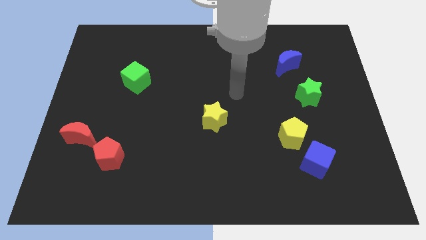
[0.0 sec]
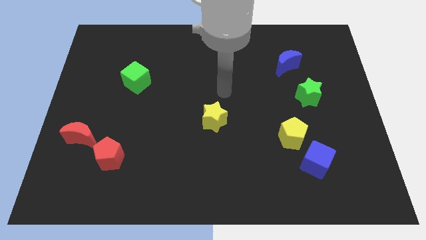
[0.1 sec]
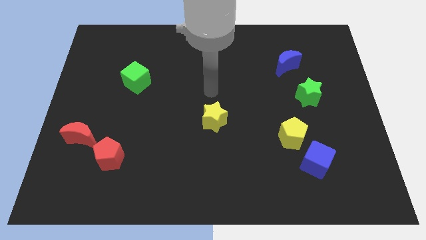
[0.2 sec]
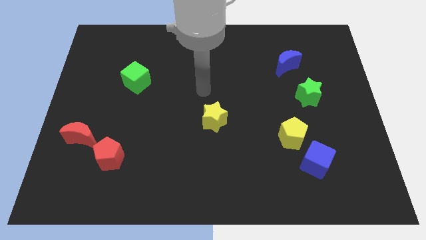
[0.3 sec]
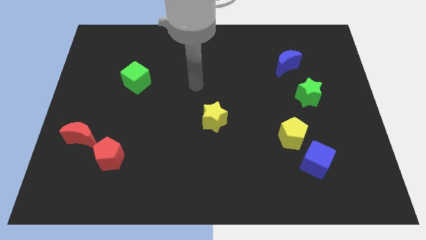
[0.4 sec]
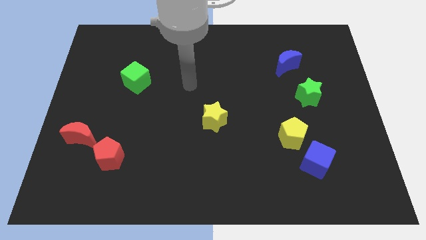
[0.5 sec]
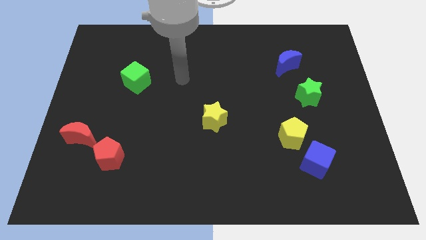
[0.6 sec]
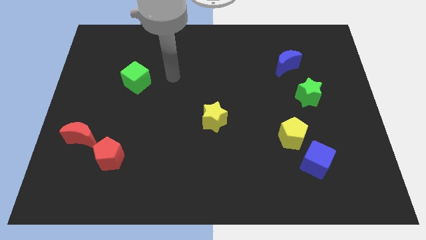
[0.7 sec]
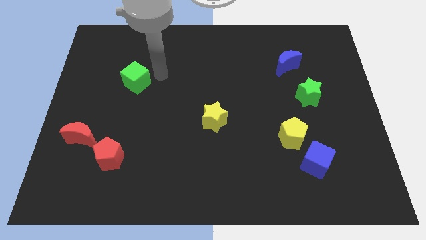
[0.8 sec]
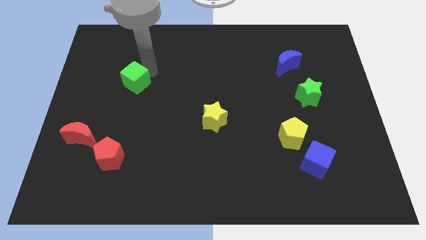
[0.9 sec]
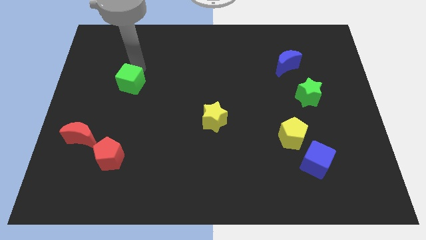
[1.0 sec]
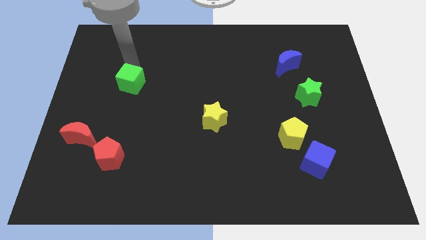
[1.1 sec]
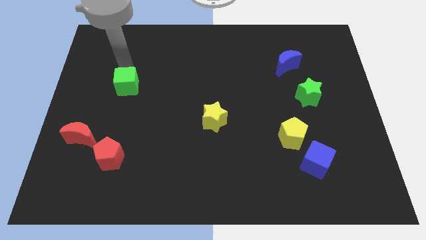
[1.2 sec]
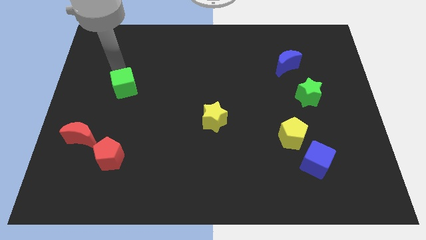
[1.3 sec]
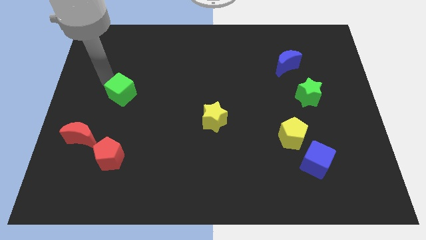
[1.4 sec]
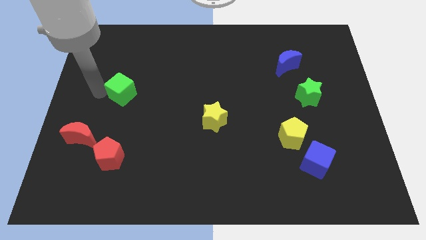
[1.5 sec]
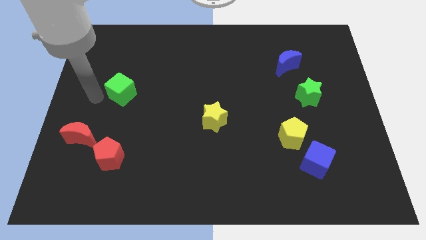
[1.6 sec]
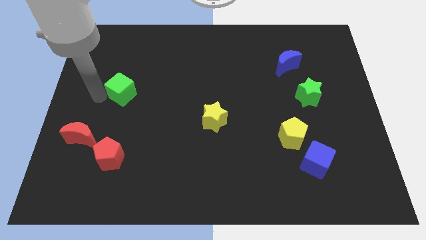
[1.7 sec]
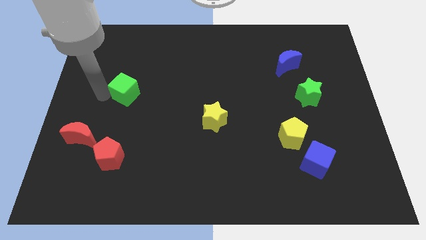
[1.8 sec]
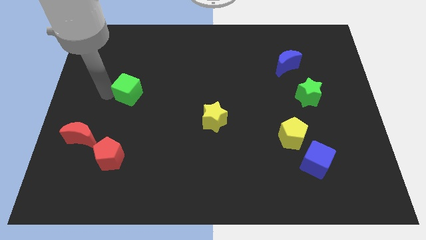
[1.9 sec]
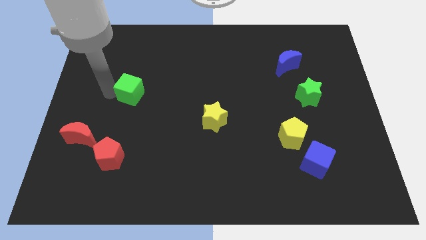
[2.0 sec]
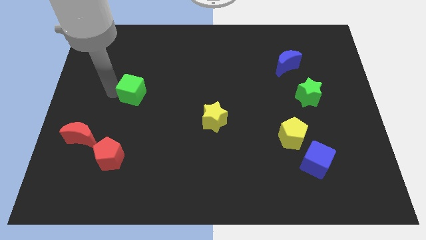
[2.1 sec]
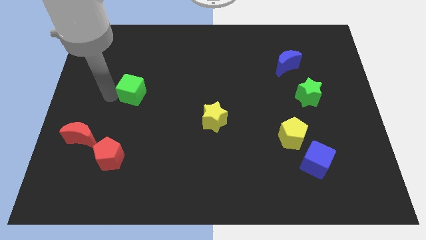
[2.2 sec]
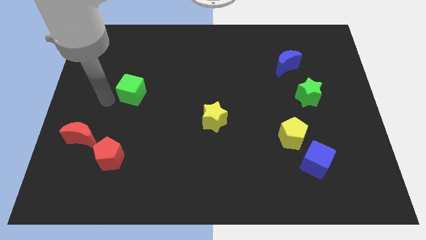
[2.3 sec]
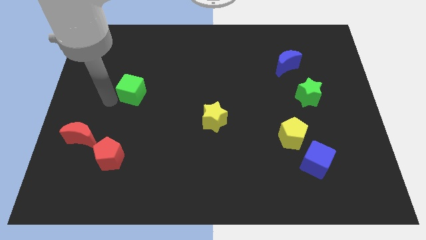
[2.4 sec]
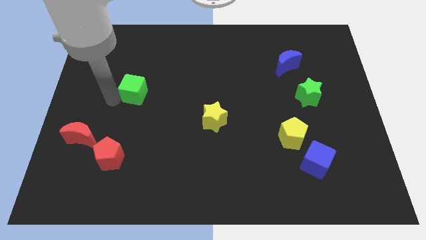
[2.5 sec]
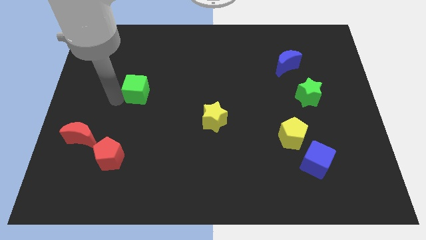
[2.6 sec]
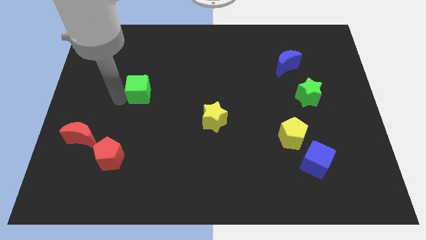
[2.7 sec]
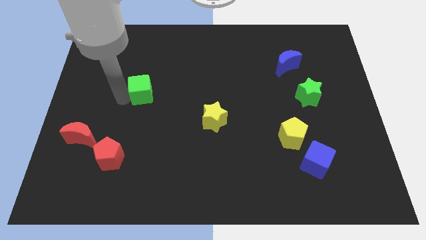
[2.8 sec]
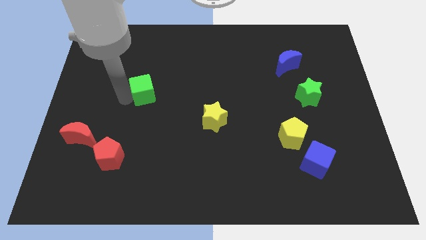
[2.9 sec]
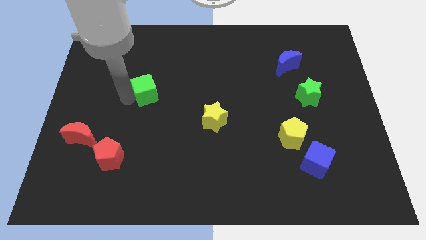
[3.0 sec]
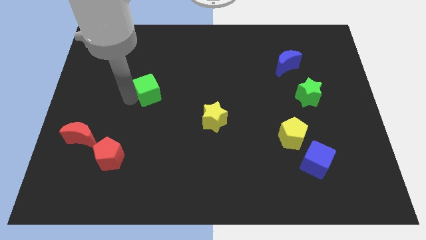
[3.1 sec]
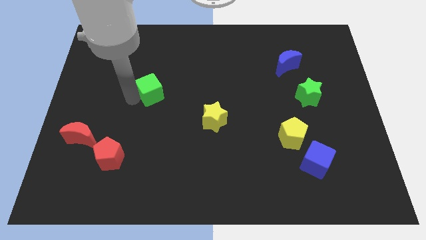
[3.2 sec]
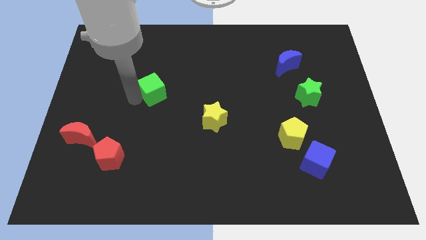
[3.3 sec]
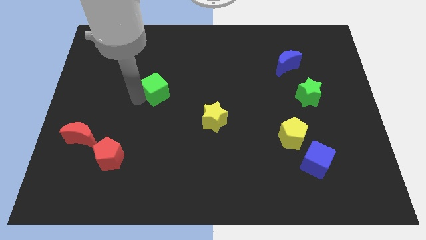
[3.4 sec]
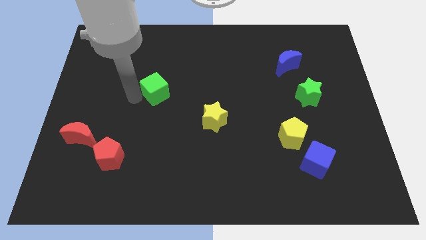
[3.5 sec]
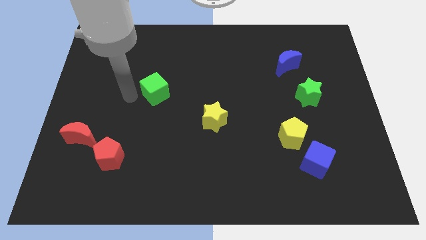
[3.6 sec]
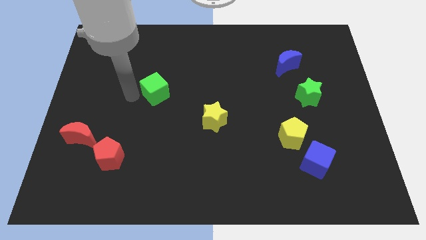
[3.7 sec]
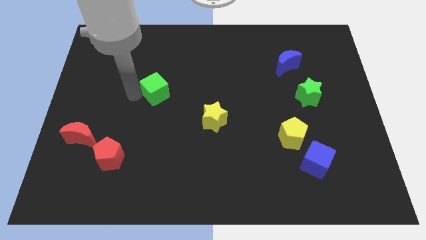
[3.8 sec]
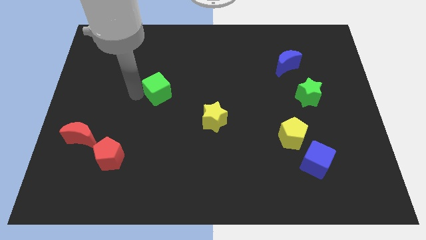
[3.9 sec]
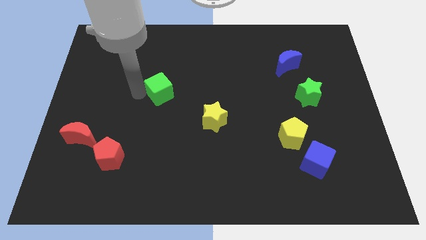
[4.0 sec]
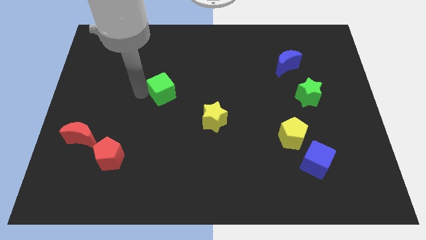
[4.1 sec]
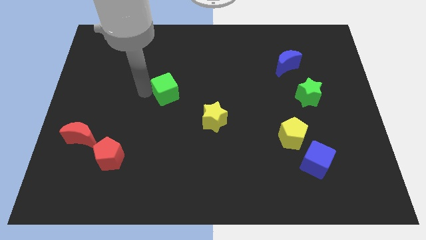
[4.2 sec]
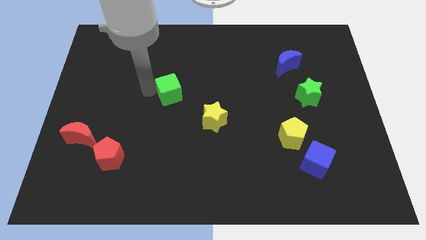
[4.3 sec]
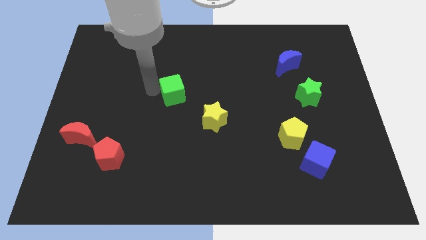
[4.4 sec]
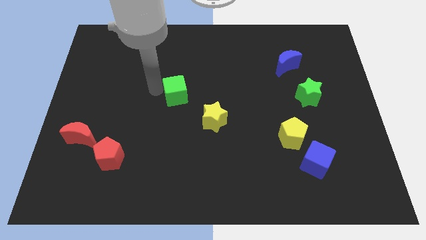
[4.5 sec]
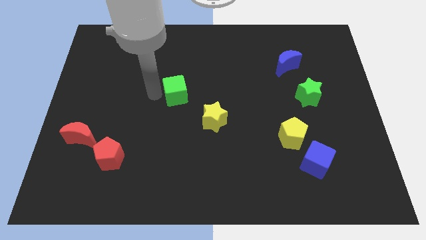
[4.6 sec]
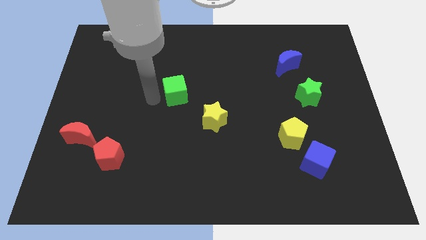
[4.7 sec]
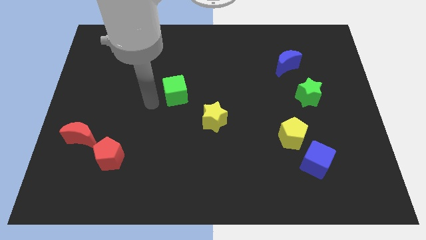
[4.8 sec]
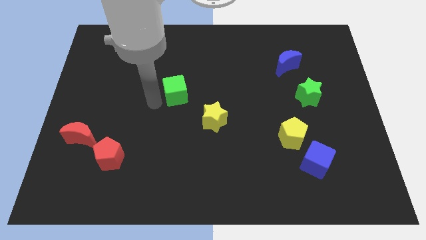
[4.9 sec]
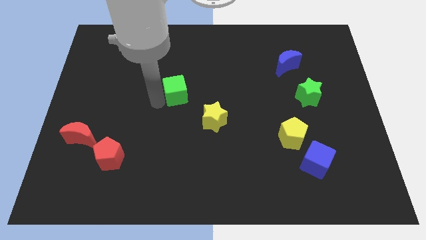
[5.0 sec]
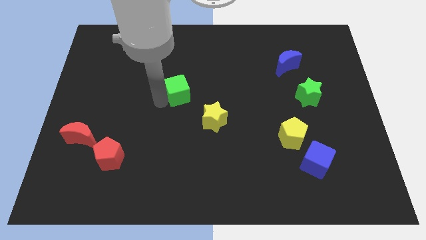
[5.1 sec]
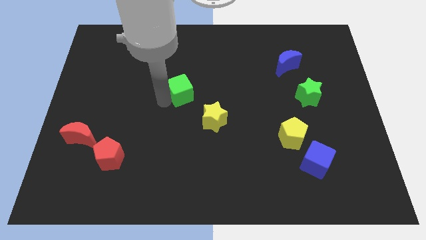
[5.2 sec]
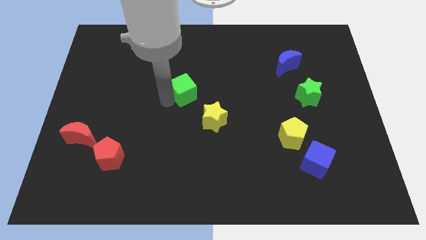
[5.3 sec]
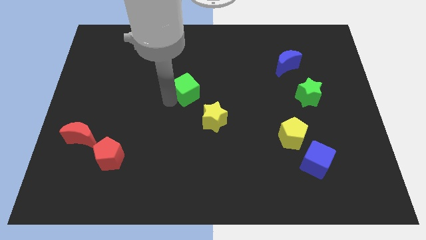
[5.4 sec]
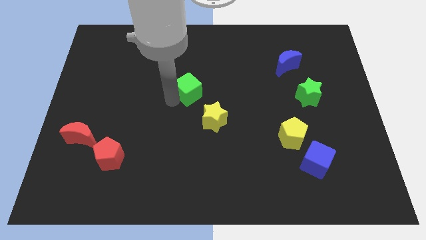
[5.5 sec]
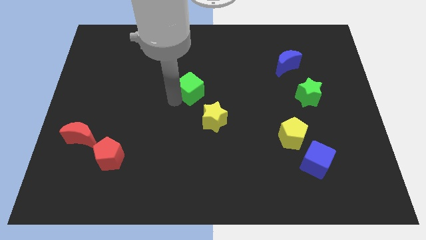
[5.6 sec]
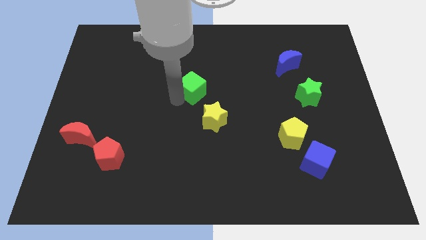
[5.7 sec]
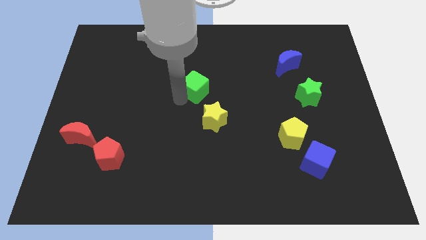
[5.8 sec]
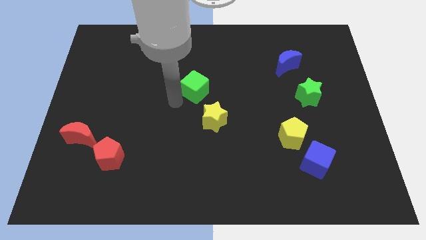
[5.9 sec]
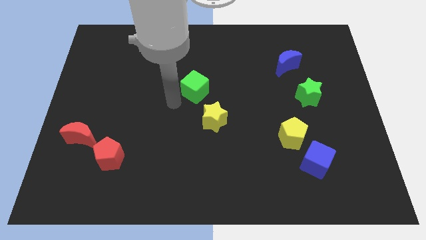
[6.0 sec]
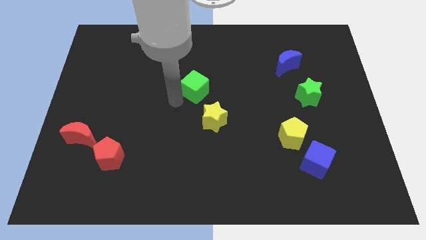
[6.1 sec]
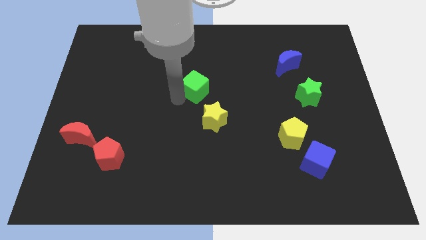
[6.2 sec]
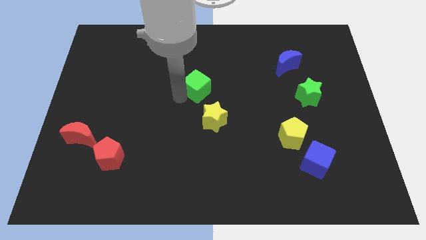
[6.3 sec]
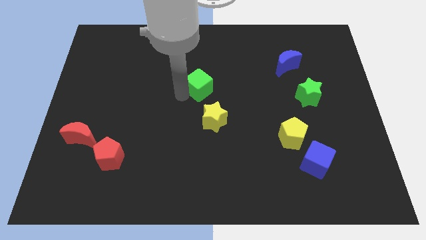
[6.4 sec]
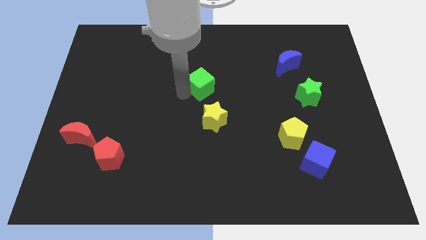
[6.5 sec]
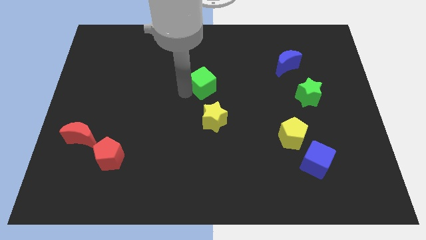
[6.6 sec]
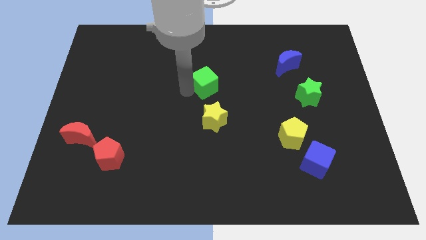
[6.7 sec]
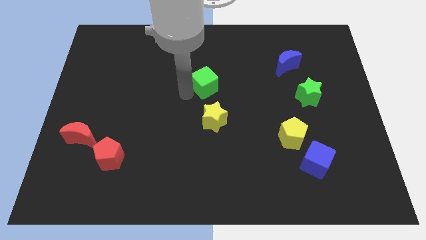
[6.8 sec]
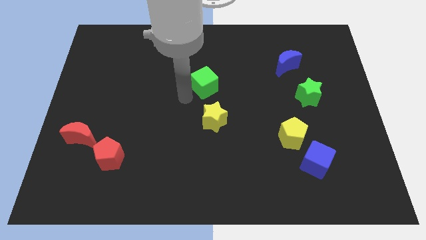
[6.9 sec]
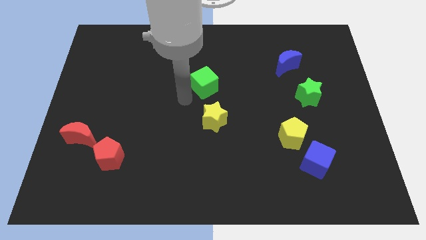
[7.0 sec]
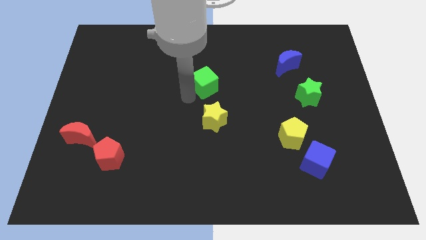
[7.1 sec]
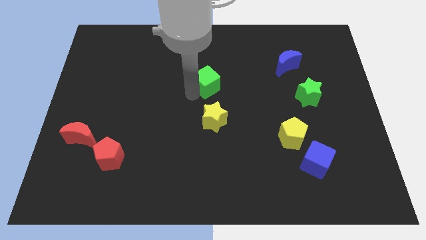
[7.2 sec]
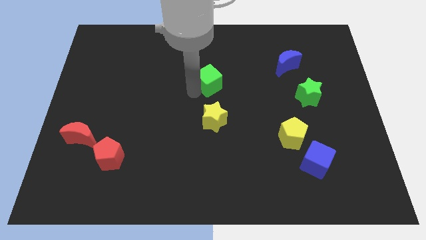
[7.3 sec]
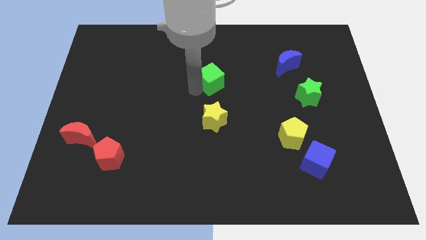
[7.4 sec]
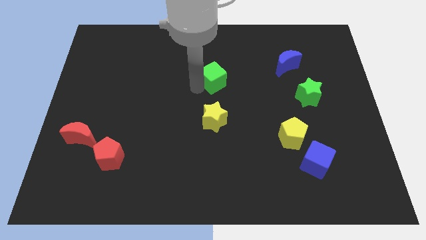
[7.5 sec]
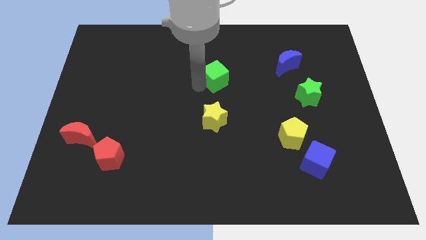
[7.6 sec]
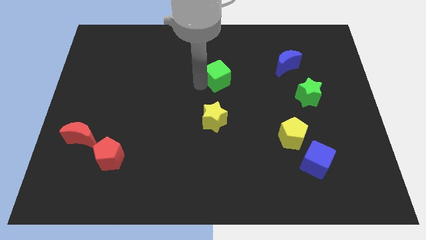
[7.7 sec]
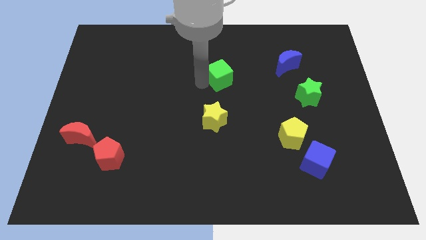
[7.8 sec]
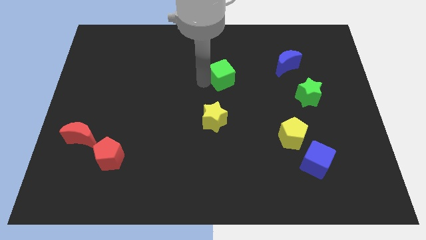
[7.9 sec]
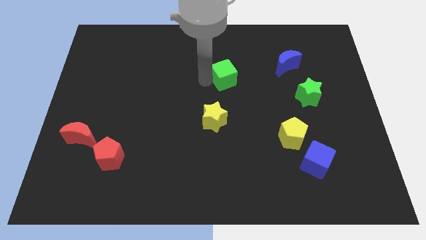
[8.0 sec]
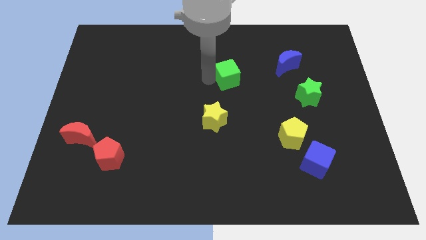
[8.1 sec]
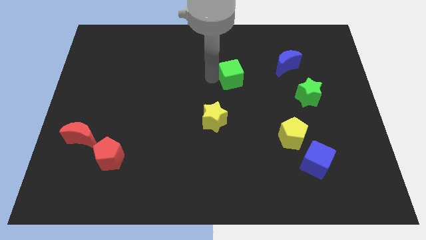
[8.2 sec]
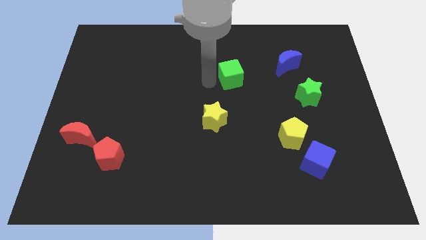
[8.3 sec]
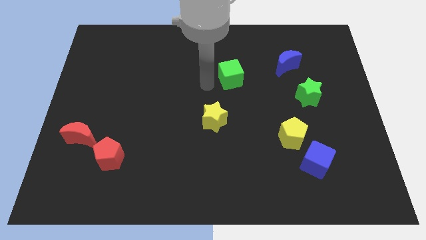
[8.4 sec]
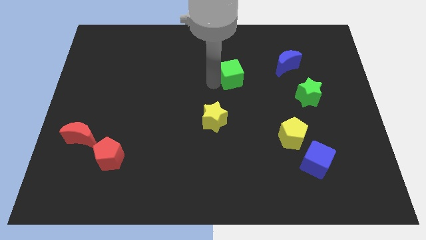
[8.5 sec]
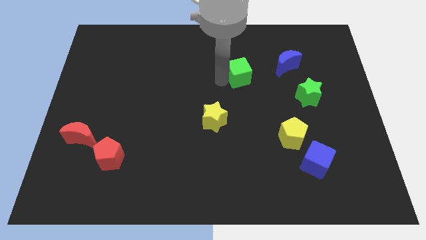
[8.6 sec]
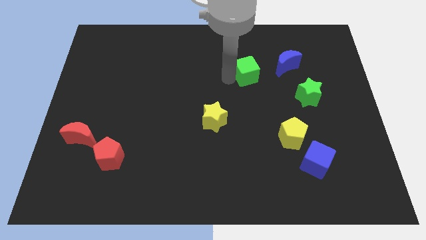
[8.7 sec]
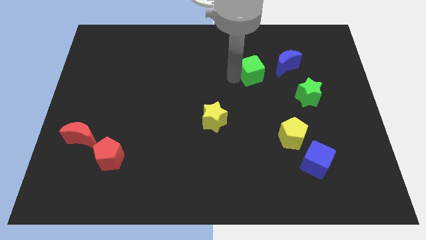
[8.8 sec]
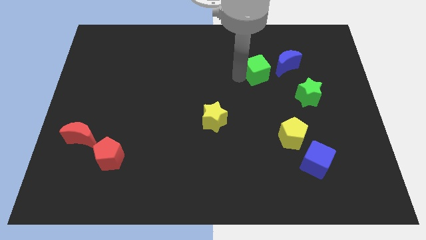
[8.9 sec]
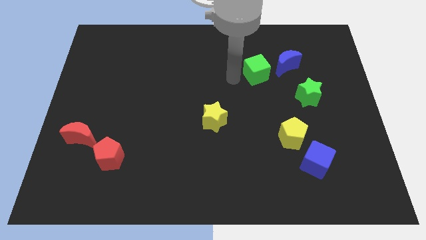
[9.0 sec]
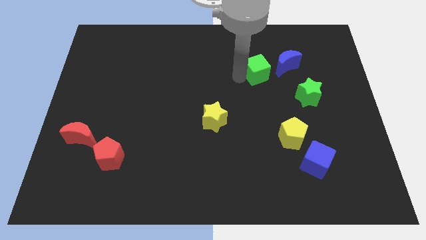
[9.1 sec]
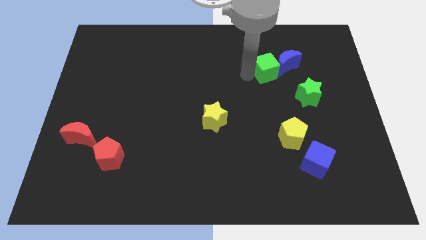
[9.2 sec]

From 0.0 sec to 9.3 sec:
slide the green cube next to the blue moon
